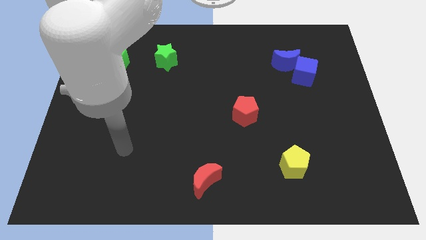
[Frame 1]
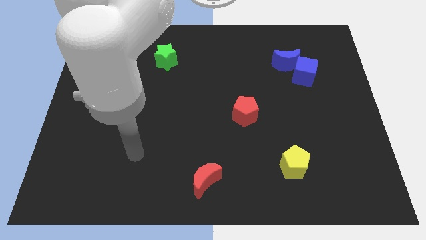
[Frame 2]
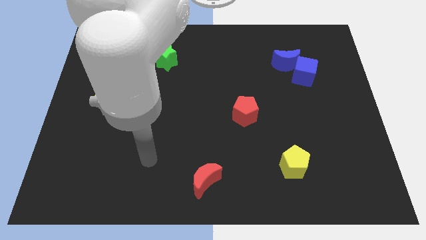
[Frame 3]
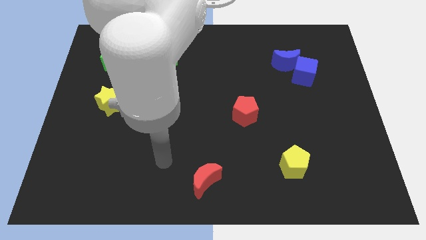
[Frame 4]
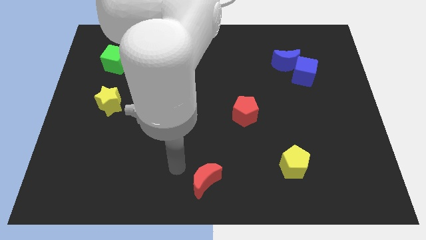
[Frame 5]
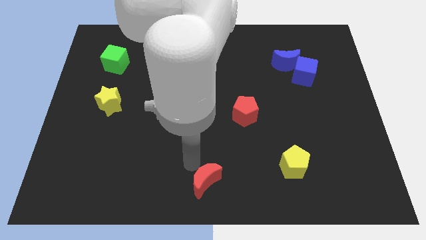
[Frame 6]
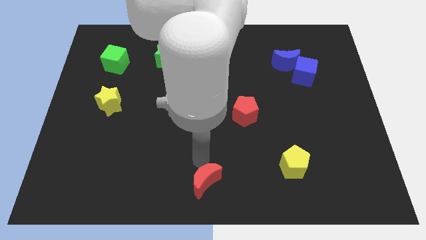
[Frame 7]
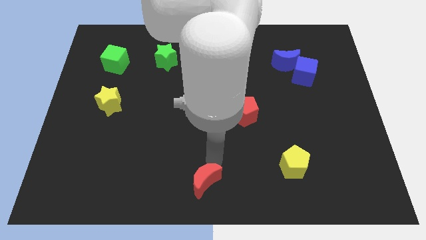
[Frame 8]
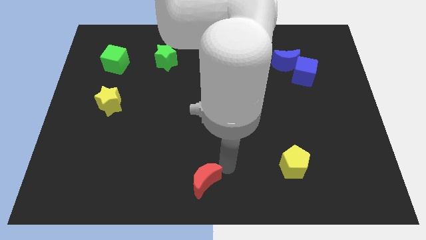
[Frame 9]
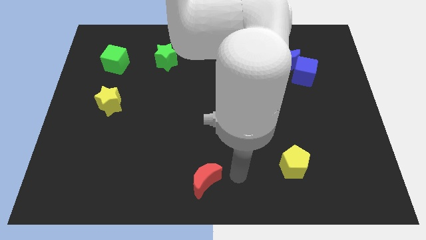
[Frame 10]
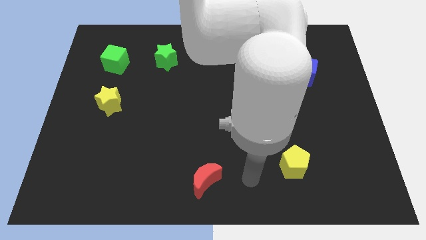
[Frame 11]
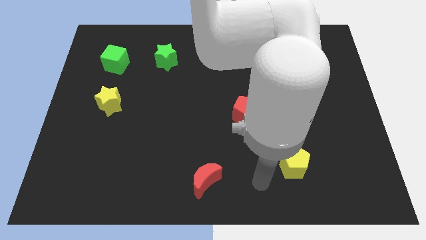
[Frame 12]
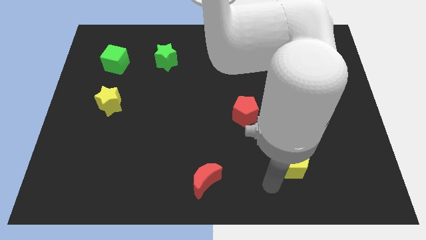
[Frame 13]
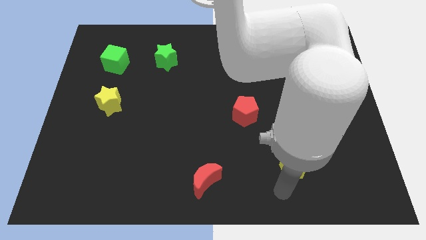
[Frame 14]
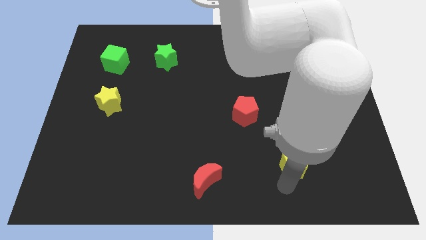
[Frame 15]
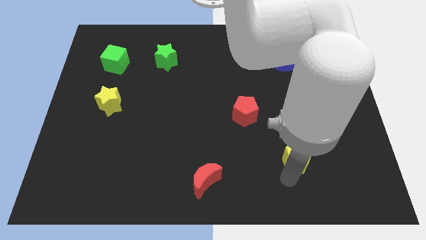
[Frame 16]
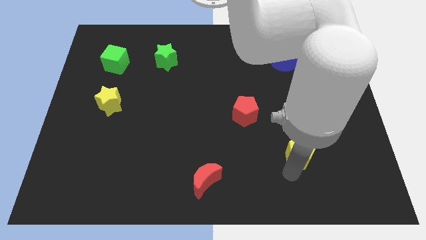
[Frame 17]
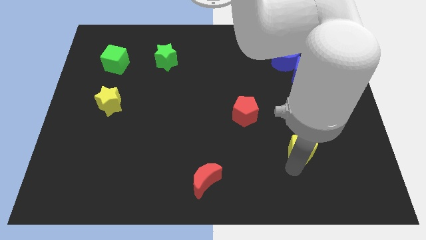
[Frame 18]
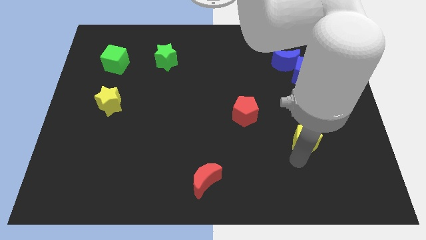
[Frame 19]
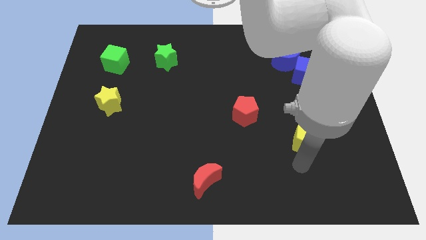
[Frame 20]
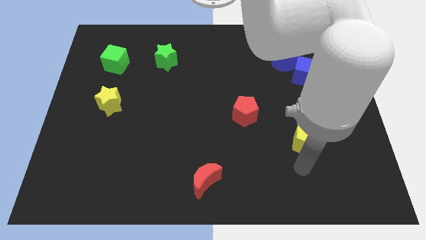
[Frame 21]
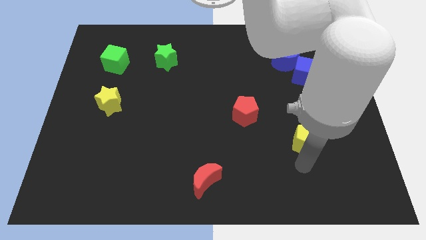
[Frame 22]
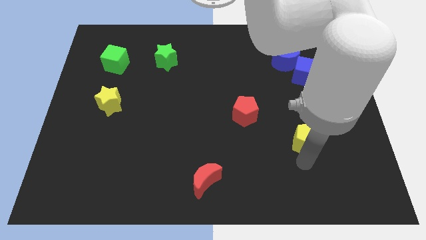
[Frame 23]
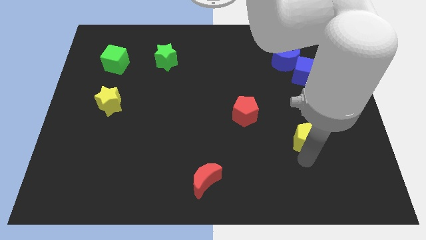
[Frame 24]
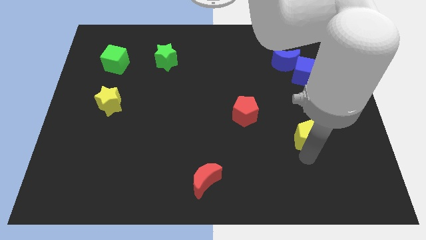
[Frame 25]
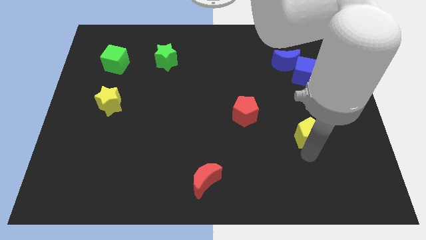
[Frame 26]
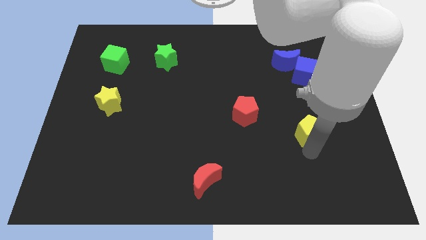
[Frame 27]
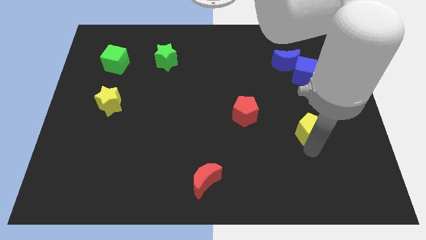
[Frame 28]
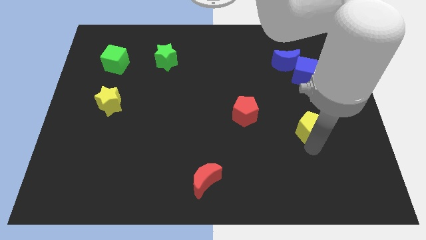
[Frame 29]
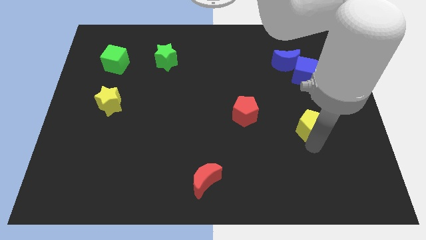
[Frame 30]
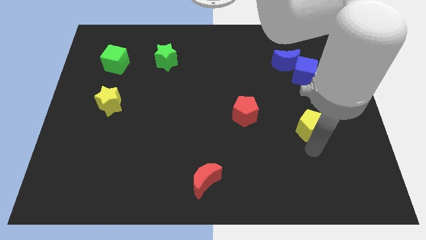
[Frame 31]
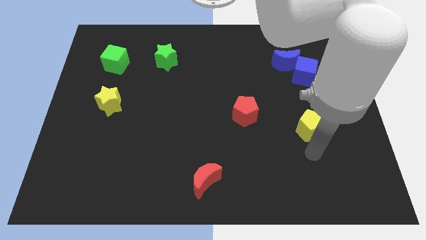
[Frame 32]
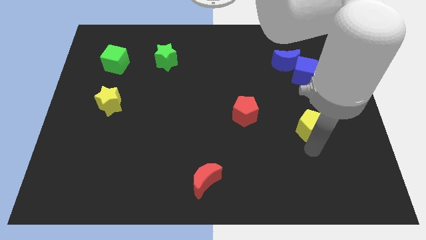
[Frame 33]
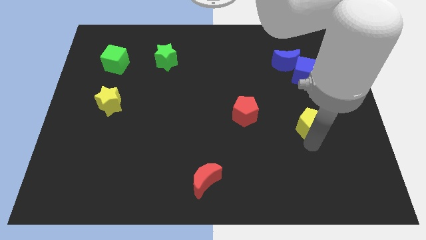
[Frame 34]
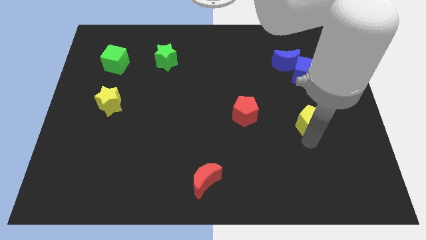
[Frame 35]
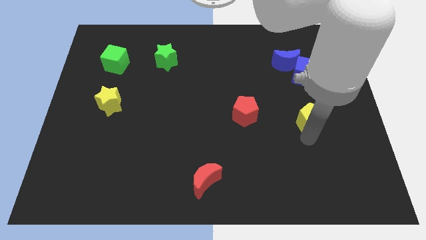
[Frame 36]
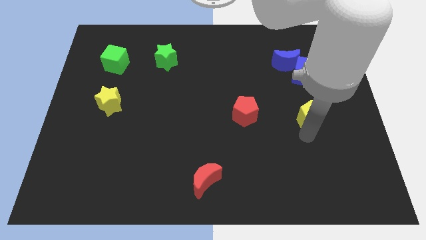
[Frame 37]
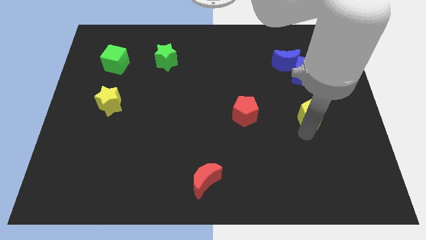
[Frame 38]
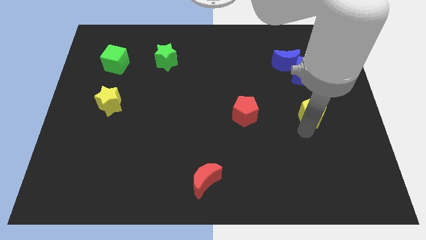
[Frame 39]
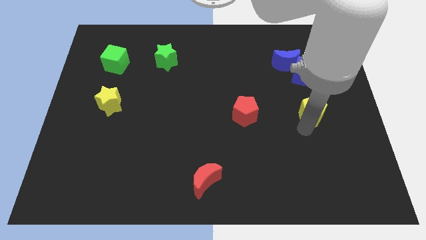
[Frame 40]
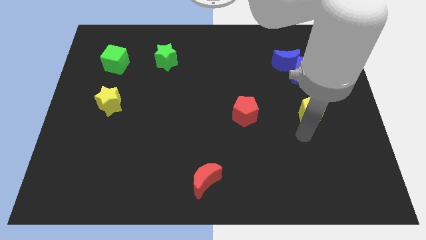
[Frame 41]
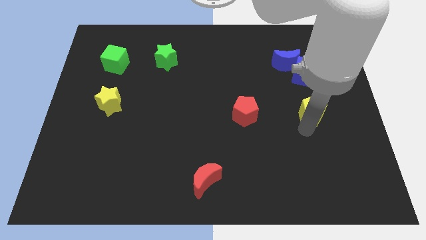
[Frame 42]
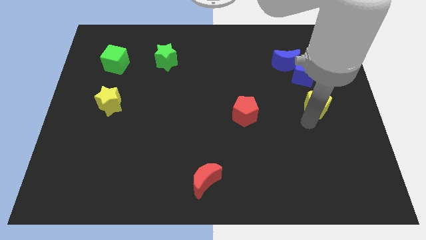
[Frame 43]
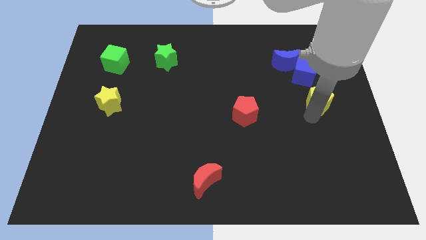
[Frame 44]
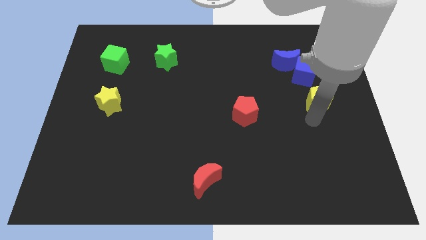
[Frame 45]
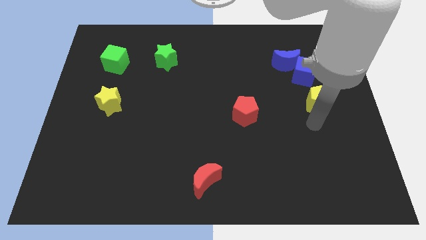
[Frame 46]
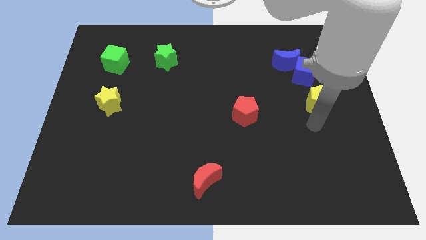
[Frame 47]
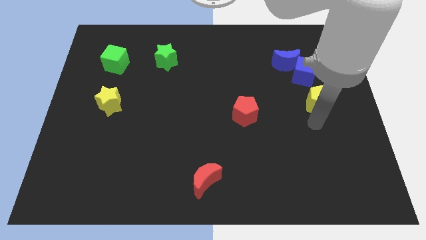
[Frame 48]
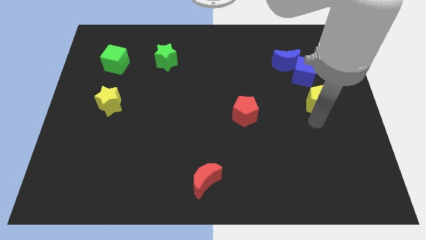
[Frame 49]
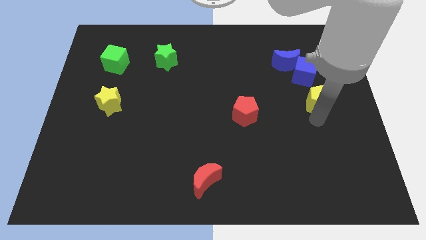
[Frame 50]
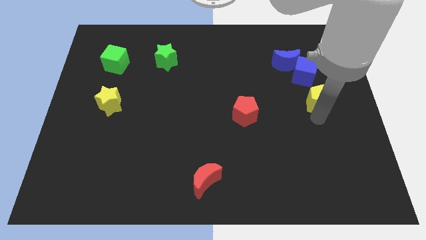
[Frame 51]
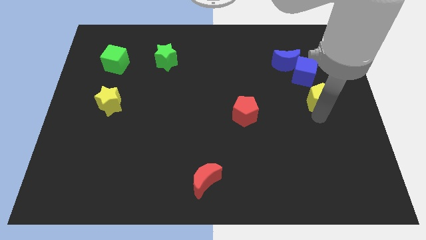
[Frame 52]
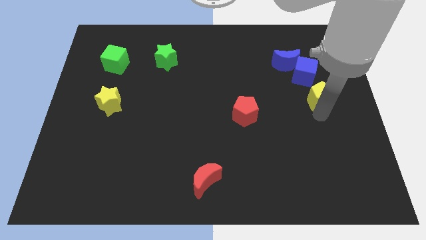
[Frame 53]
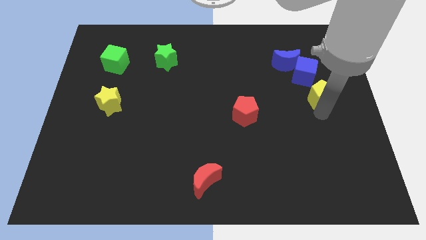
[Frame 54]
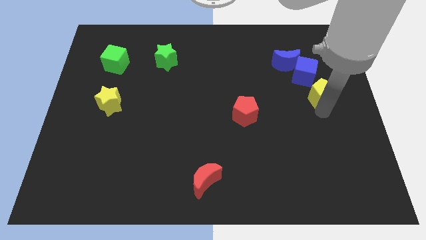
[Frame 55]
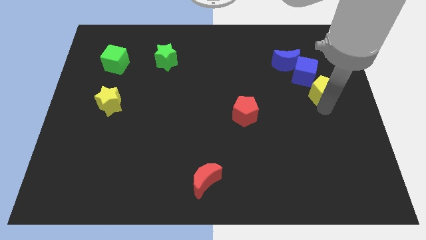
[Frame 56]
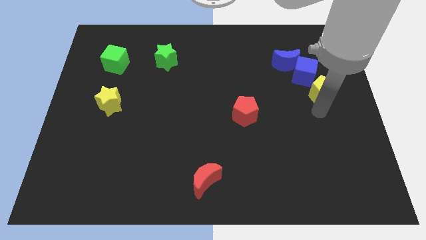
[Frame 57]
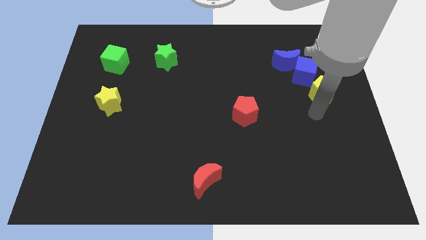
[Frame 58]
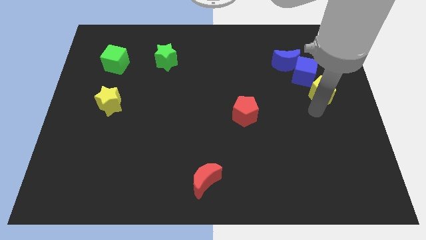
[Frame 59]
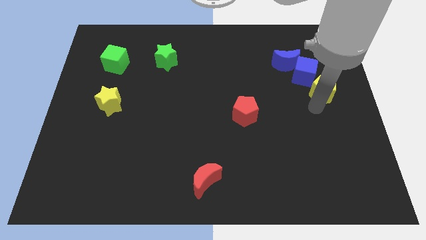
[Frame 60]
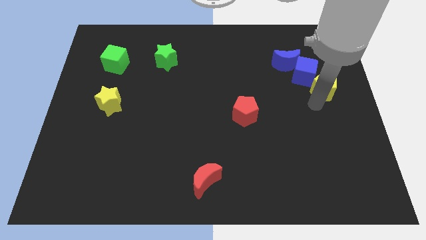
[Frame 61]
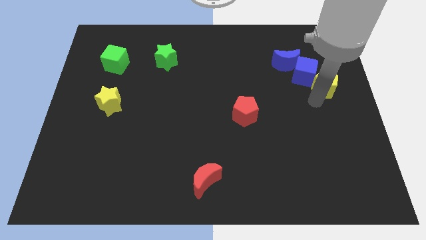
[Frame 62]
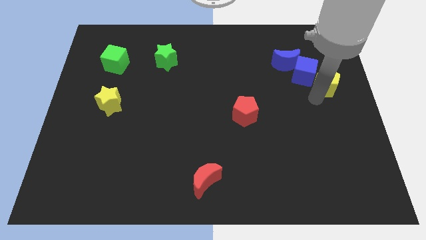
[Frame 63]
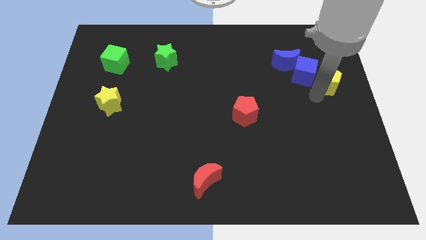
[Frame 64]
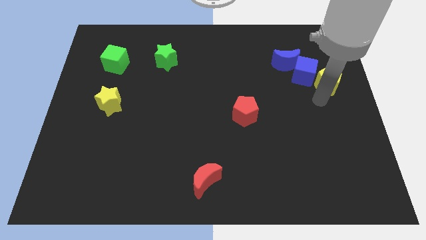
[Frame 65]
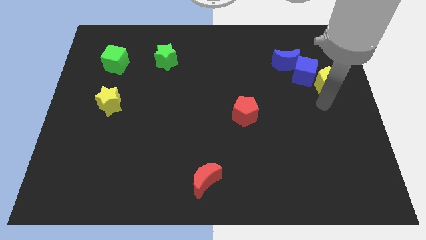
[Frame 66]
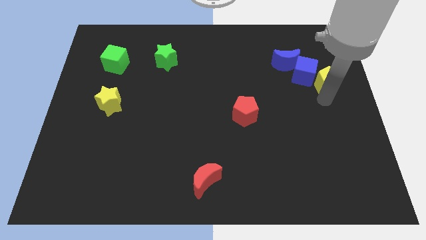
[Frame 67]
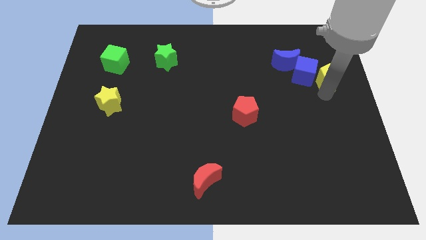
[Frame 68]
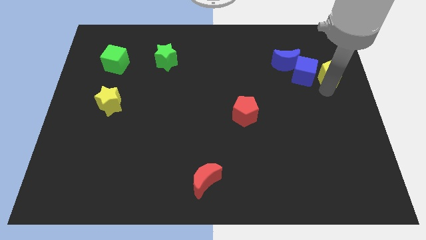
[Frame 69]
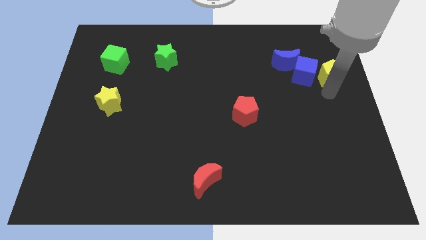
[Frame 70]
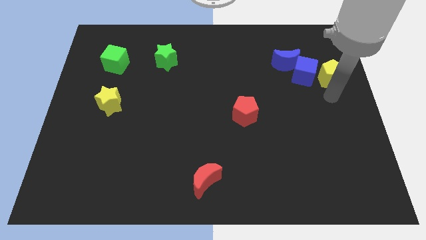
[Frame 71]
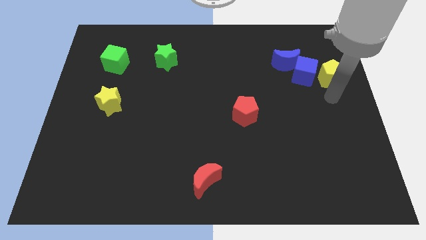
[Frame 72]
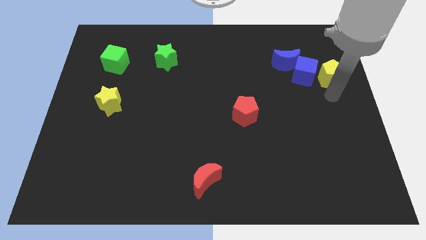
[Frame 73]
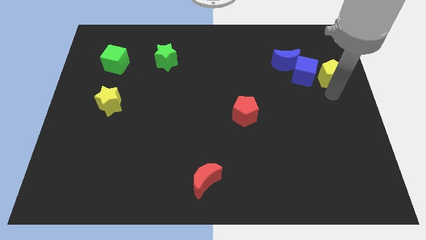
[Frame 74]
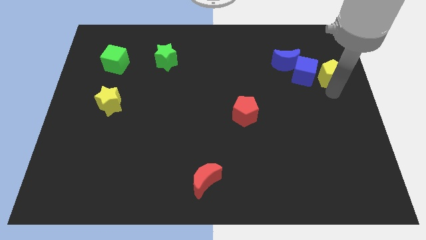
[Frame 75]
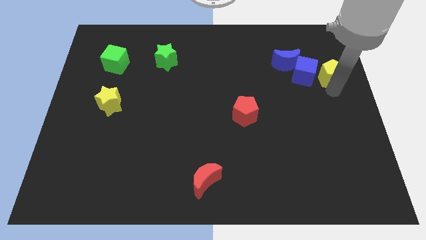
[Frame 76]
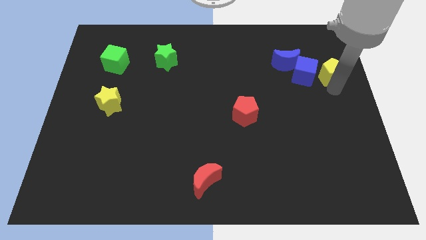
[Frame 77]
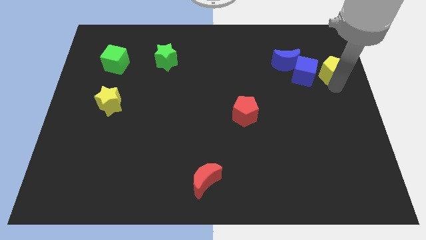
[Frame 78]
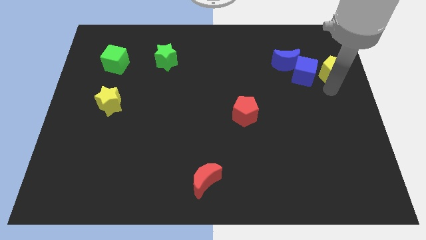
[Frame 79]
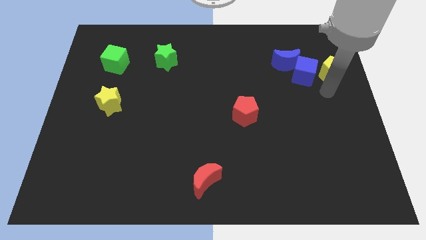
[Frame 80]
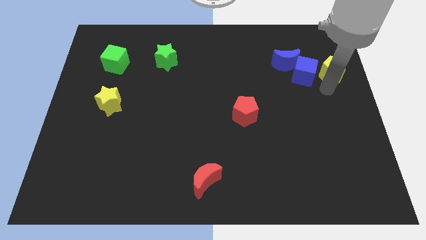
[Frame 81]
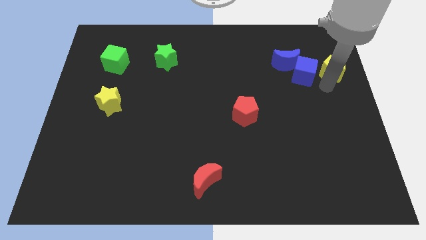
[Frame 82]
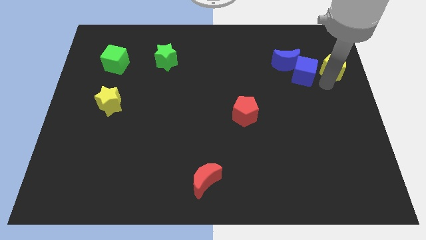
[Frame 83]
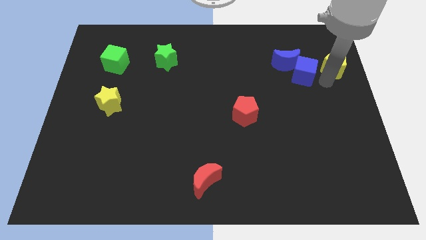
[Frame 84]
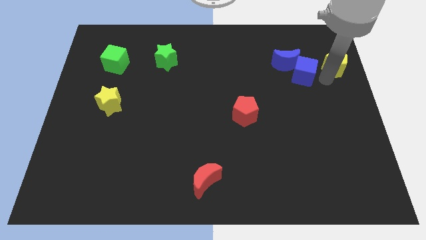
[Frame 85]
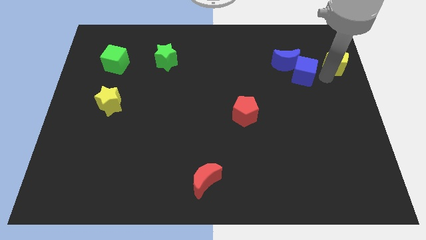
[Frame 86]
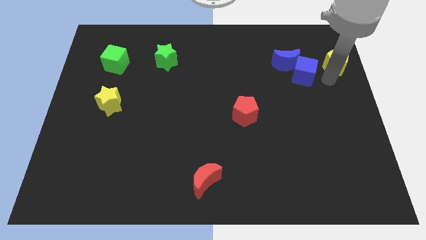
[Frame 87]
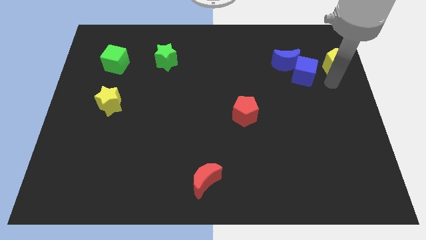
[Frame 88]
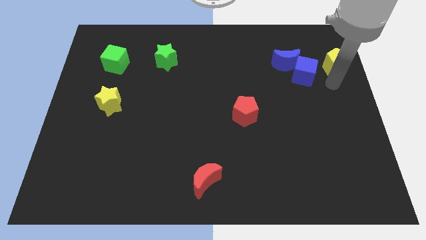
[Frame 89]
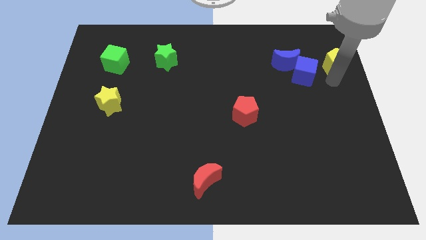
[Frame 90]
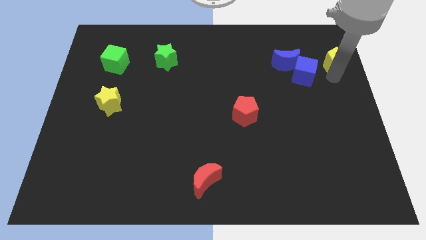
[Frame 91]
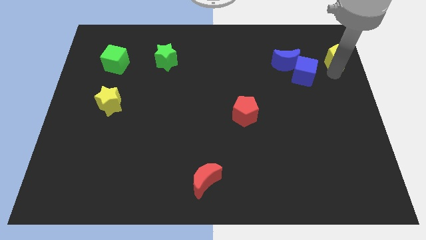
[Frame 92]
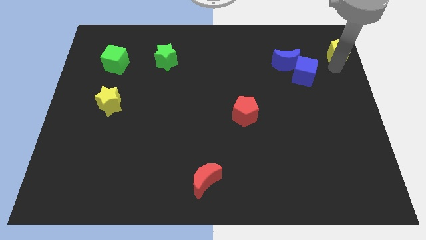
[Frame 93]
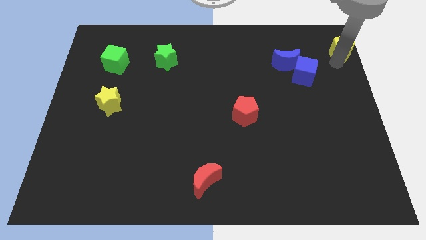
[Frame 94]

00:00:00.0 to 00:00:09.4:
move the yellow pentagon to the top right corner
